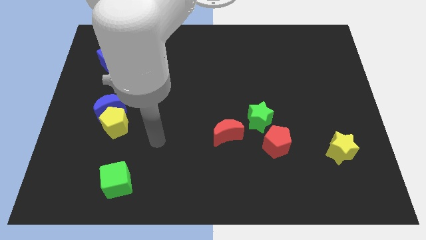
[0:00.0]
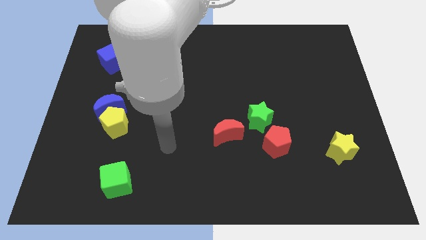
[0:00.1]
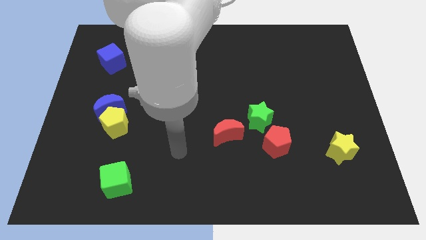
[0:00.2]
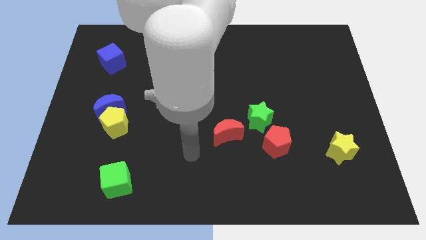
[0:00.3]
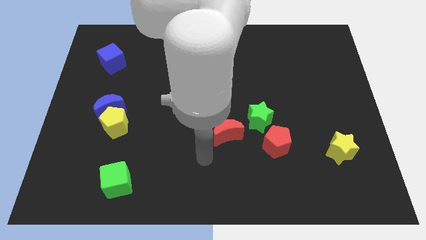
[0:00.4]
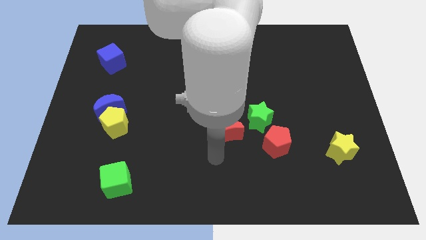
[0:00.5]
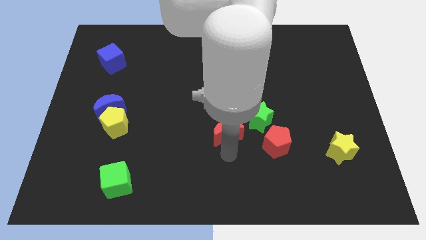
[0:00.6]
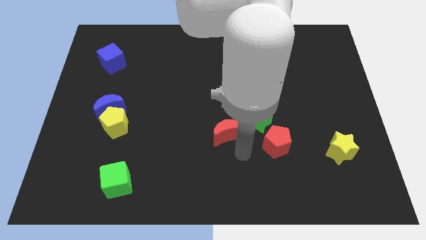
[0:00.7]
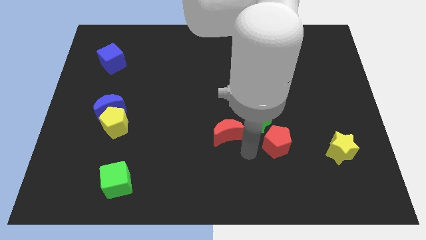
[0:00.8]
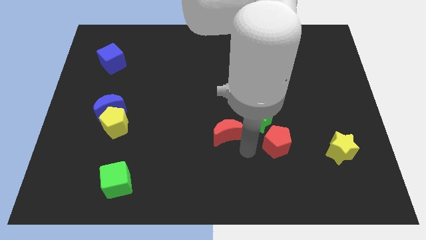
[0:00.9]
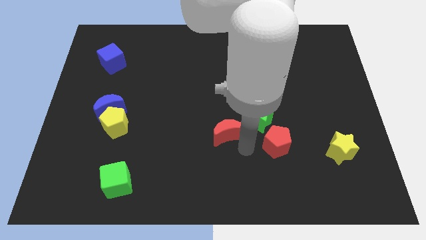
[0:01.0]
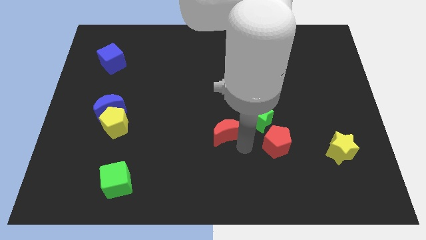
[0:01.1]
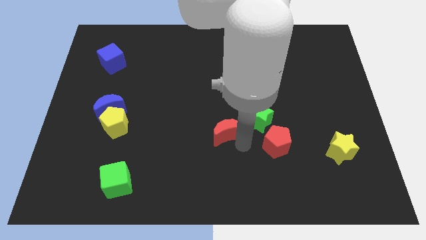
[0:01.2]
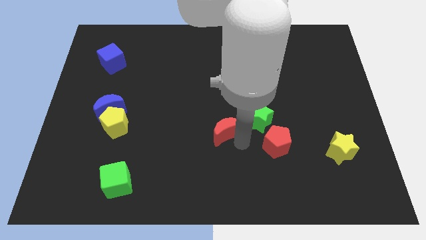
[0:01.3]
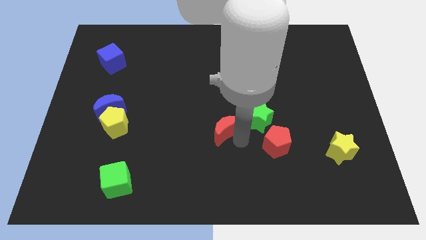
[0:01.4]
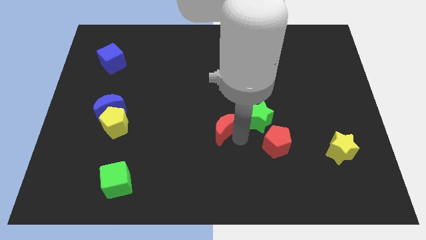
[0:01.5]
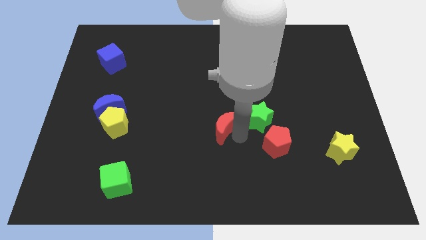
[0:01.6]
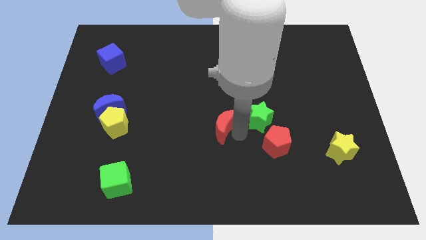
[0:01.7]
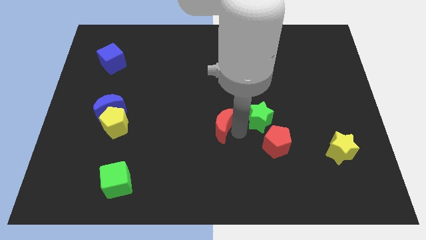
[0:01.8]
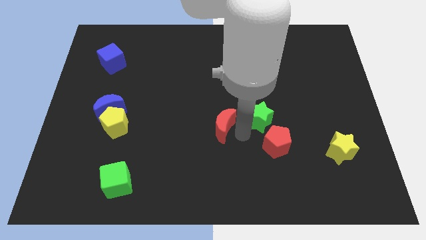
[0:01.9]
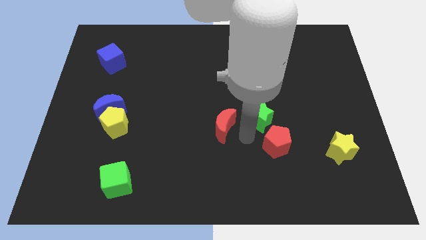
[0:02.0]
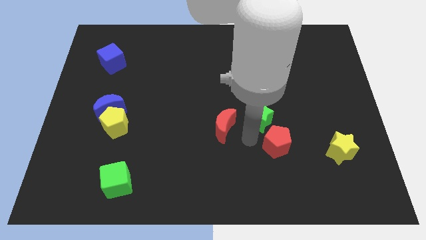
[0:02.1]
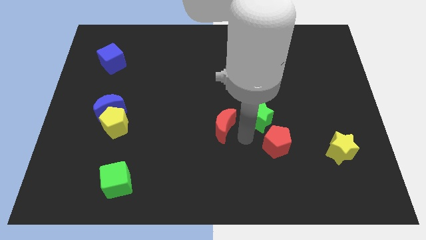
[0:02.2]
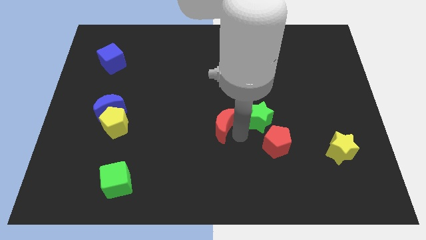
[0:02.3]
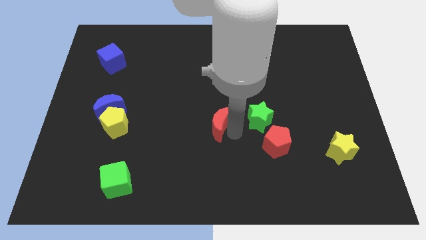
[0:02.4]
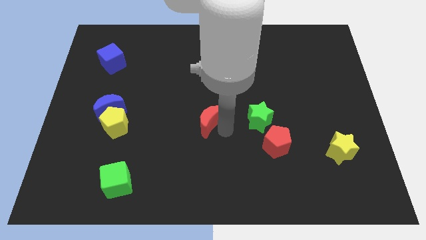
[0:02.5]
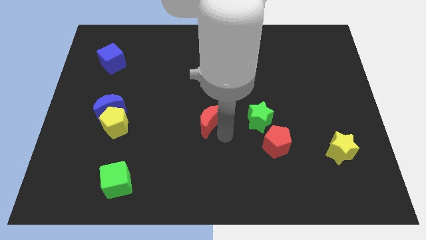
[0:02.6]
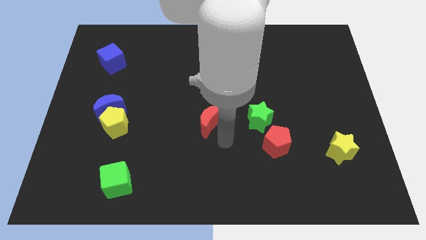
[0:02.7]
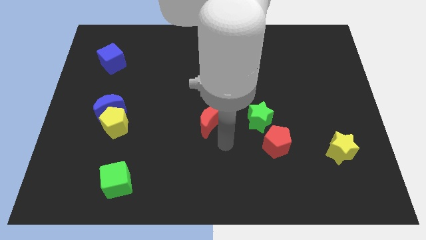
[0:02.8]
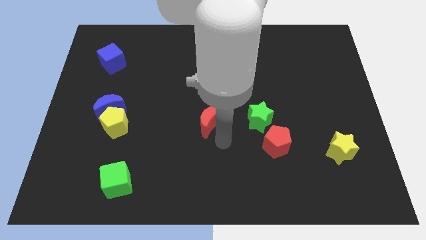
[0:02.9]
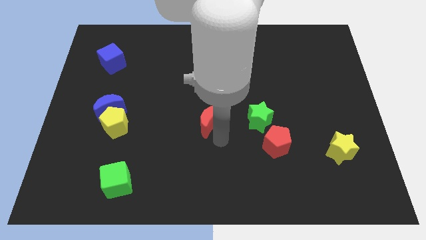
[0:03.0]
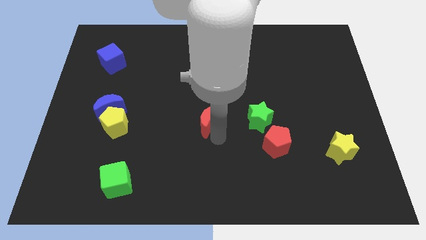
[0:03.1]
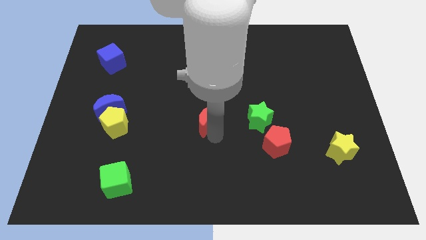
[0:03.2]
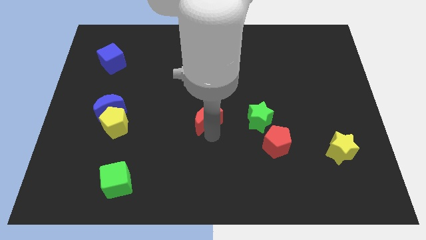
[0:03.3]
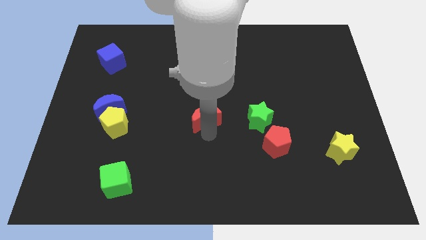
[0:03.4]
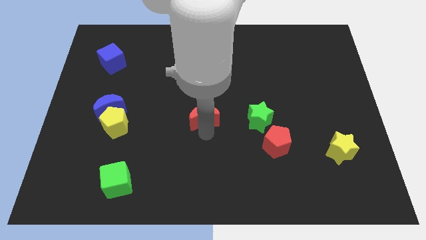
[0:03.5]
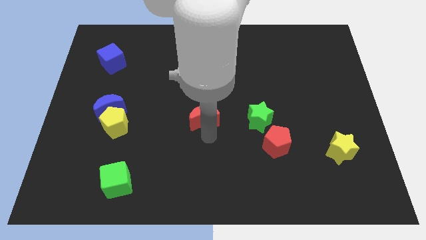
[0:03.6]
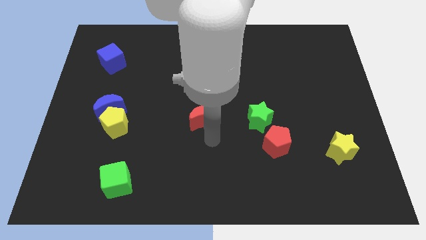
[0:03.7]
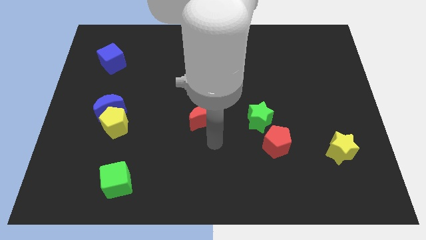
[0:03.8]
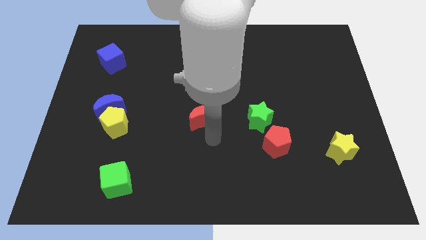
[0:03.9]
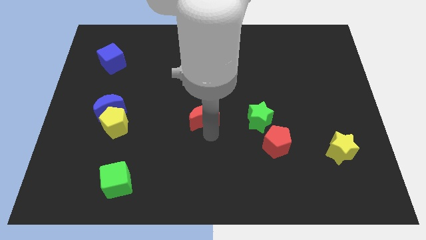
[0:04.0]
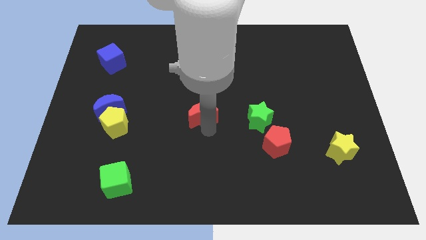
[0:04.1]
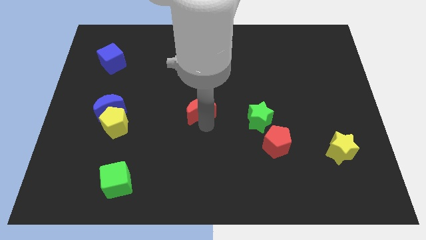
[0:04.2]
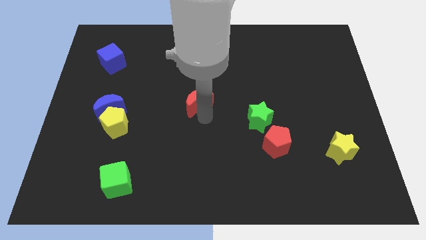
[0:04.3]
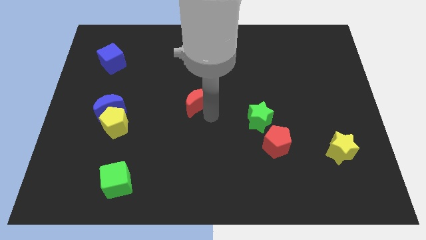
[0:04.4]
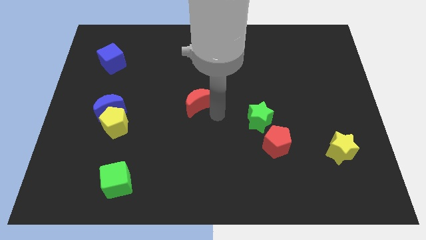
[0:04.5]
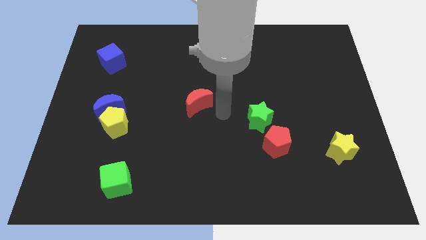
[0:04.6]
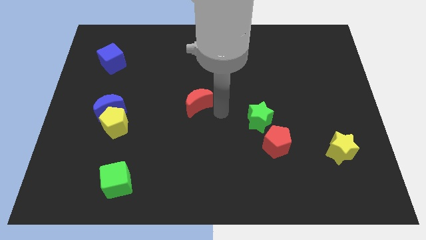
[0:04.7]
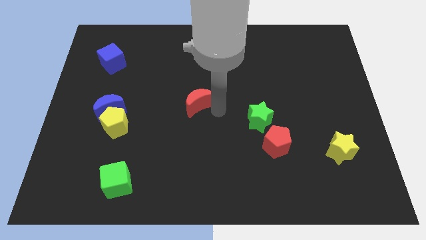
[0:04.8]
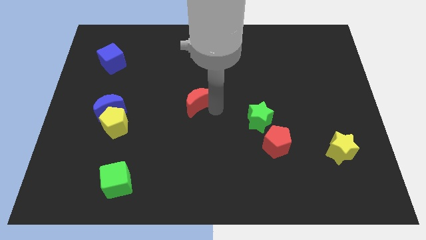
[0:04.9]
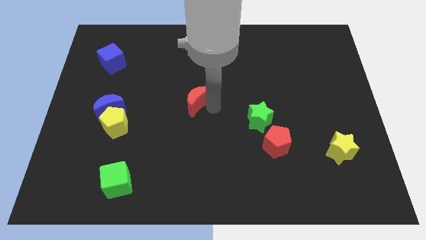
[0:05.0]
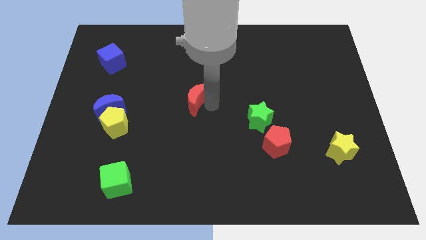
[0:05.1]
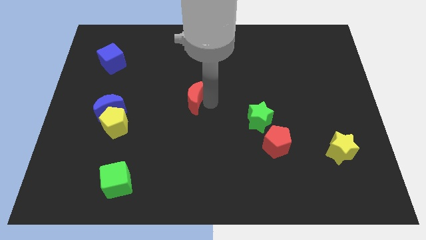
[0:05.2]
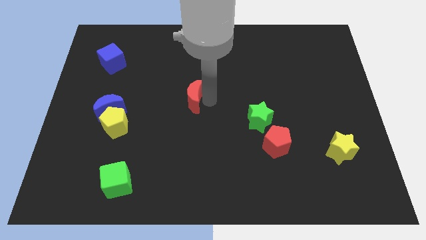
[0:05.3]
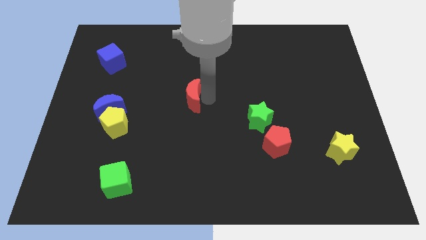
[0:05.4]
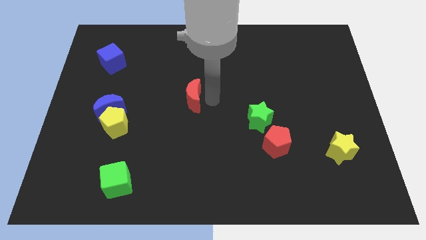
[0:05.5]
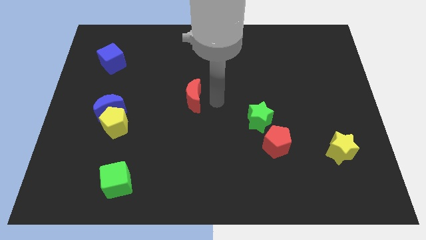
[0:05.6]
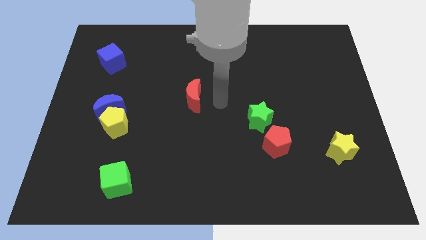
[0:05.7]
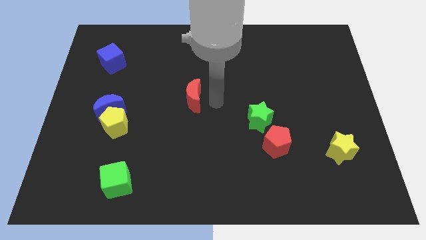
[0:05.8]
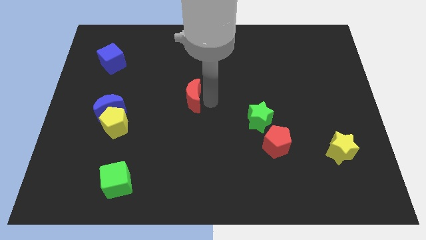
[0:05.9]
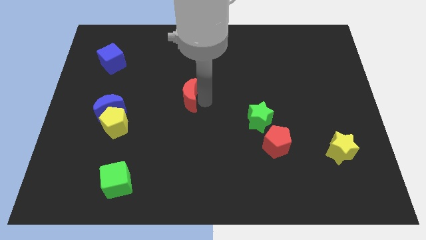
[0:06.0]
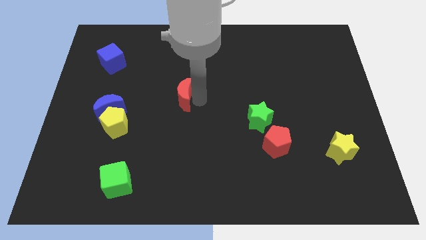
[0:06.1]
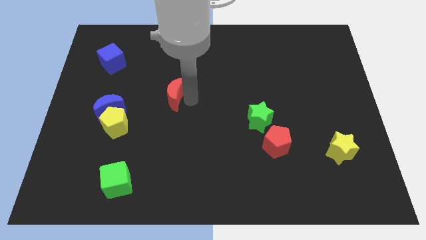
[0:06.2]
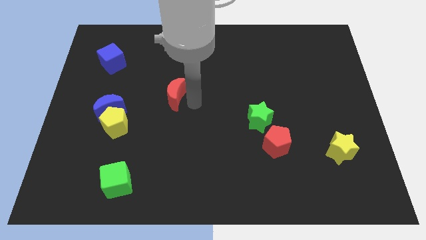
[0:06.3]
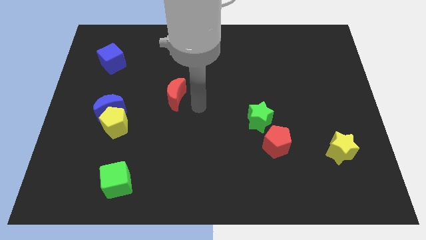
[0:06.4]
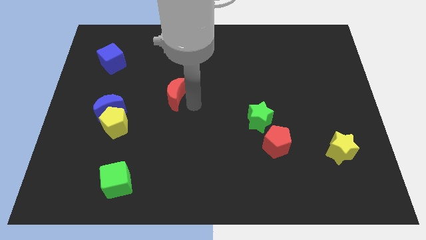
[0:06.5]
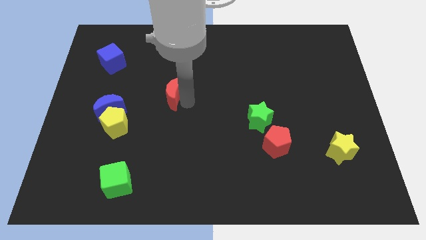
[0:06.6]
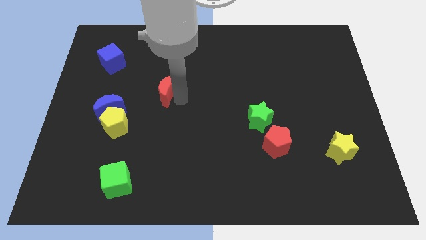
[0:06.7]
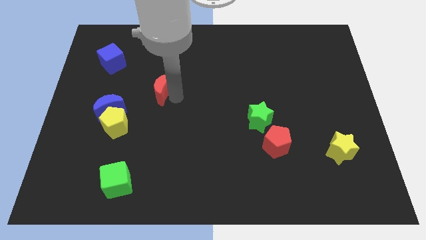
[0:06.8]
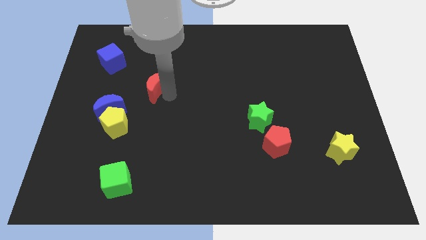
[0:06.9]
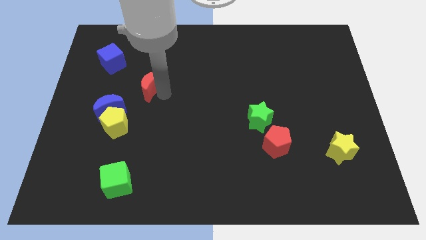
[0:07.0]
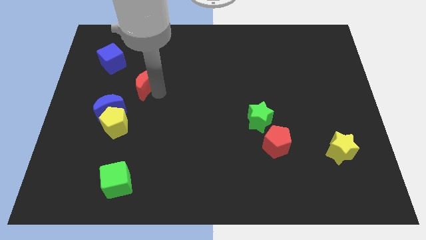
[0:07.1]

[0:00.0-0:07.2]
push the red moon to the bottom right of the blue cube
